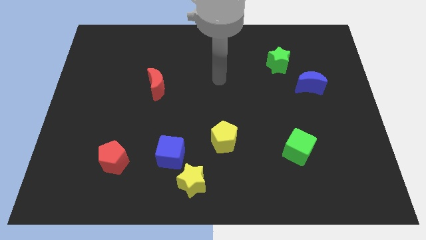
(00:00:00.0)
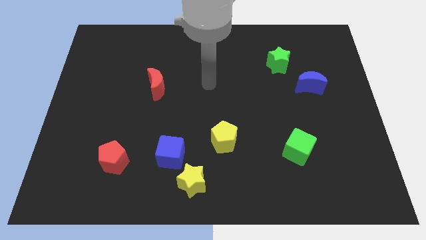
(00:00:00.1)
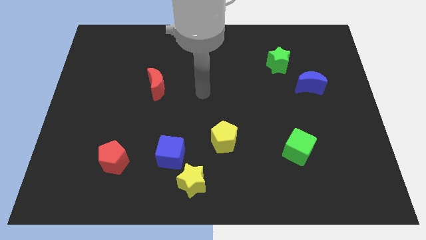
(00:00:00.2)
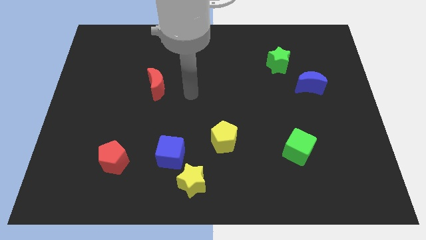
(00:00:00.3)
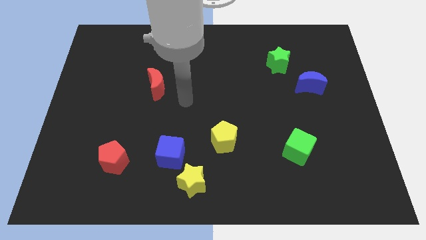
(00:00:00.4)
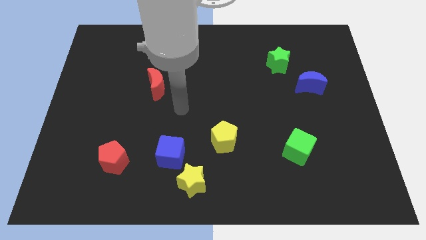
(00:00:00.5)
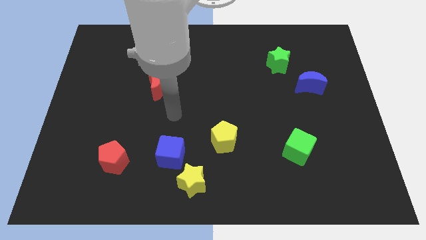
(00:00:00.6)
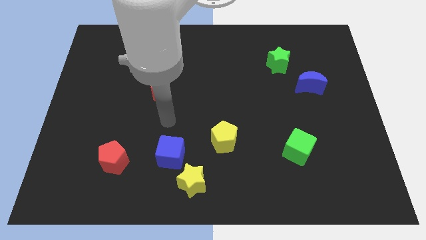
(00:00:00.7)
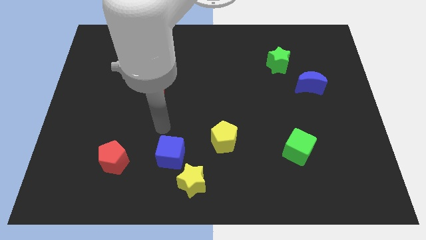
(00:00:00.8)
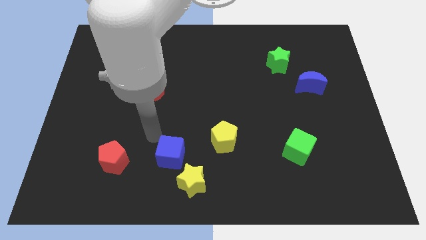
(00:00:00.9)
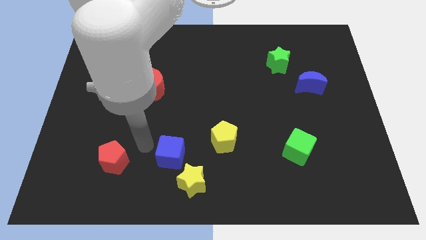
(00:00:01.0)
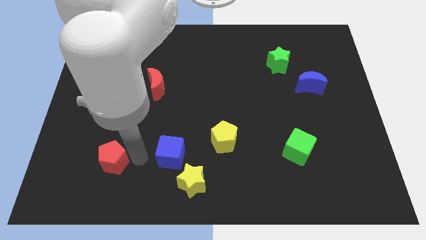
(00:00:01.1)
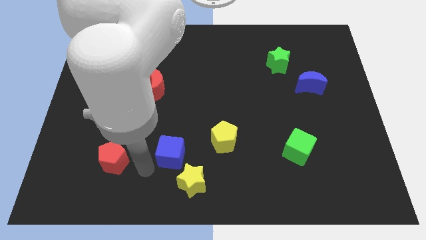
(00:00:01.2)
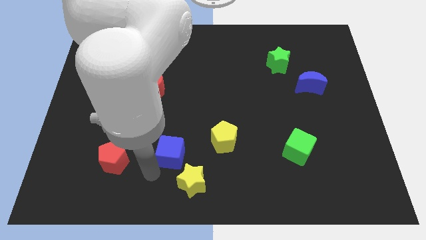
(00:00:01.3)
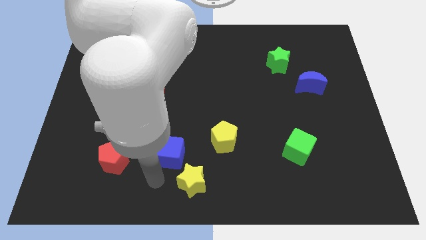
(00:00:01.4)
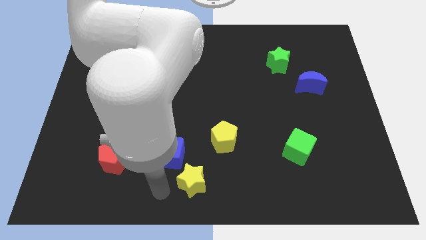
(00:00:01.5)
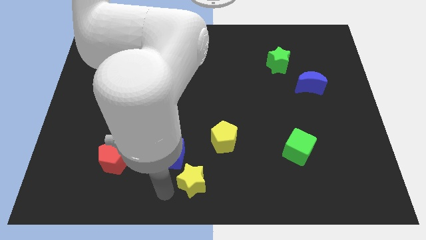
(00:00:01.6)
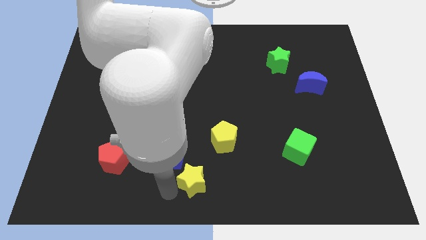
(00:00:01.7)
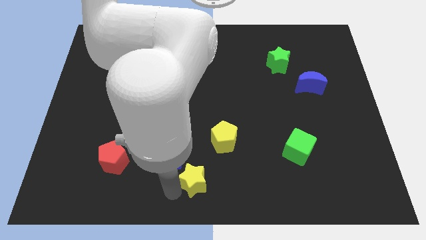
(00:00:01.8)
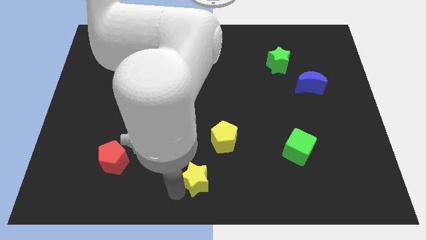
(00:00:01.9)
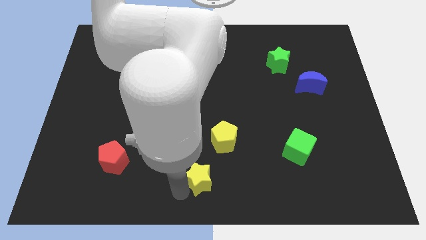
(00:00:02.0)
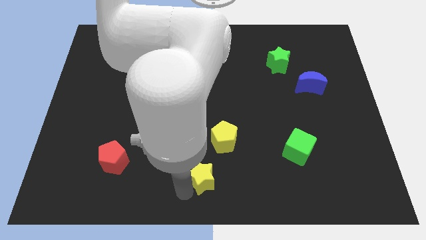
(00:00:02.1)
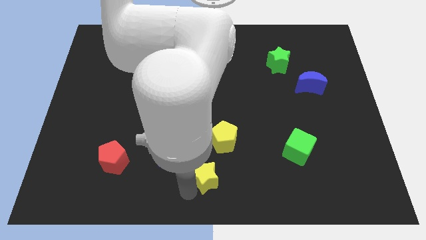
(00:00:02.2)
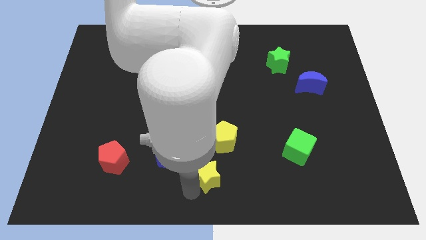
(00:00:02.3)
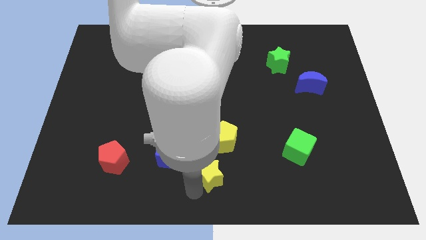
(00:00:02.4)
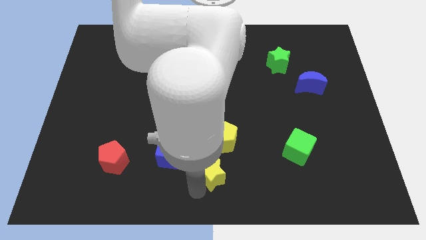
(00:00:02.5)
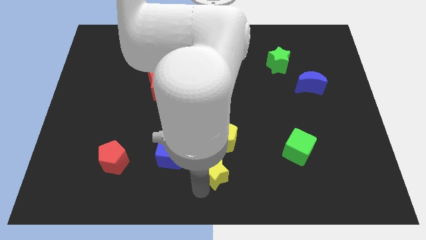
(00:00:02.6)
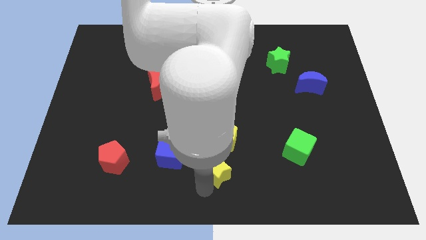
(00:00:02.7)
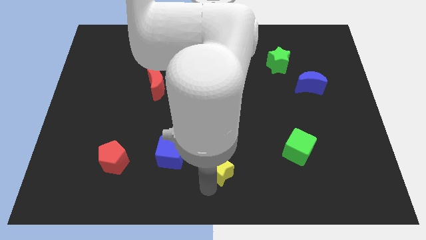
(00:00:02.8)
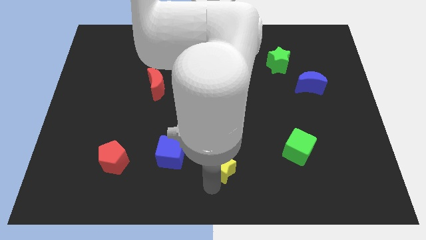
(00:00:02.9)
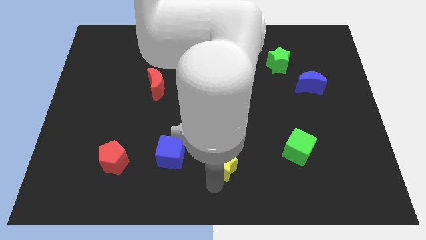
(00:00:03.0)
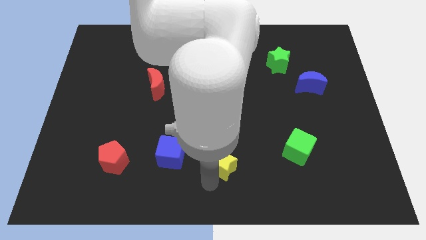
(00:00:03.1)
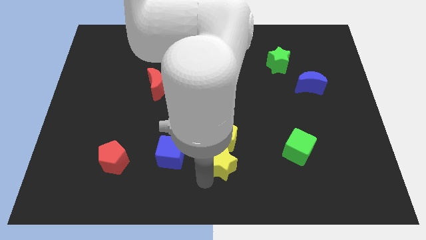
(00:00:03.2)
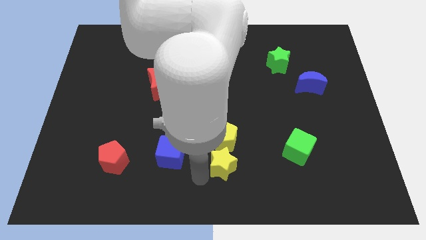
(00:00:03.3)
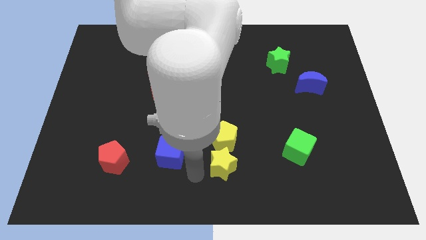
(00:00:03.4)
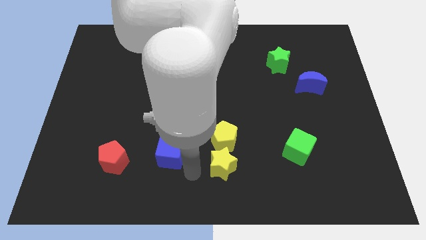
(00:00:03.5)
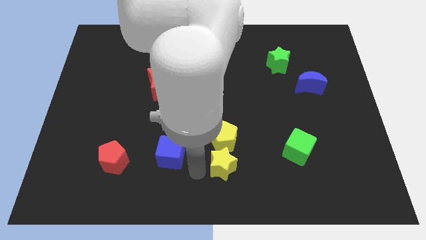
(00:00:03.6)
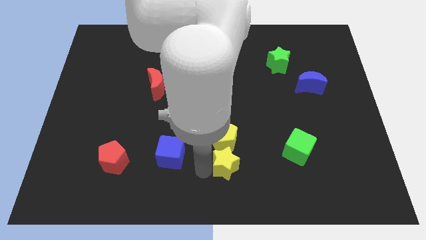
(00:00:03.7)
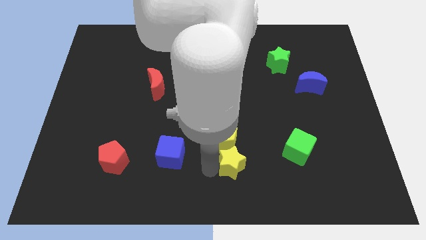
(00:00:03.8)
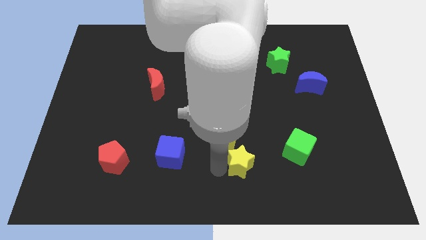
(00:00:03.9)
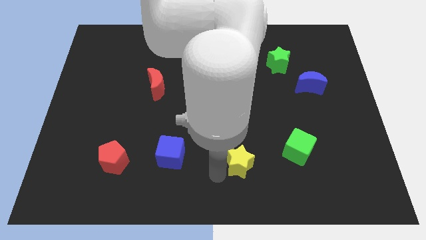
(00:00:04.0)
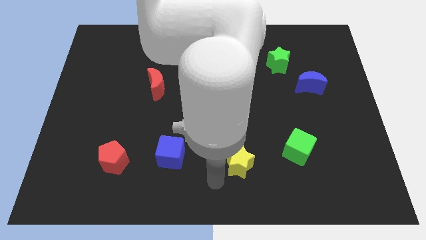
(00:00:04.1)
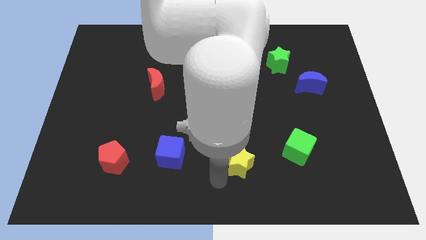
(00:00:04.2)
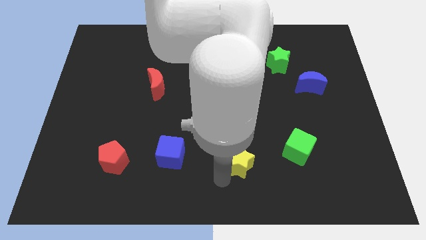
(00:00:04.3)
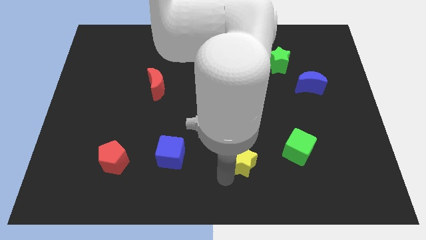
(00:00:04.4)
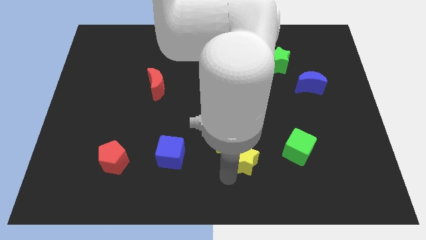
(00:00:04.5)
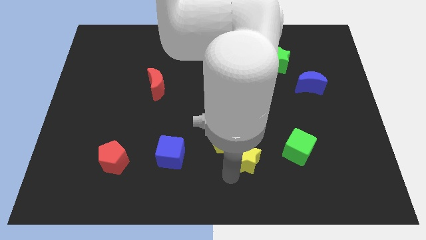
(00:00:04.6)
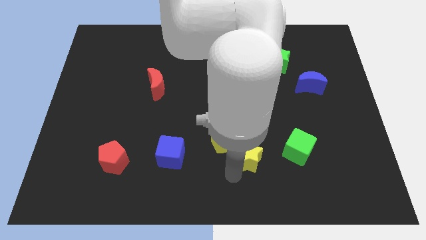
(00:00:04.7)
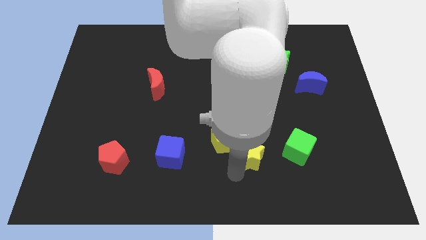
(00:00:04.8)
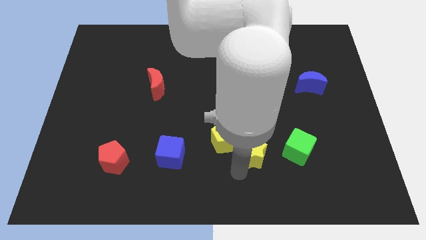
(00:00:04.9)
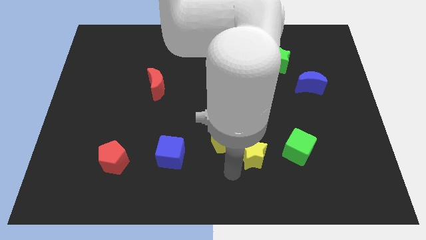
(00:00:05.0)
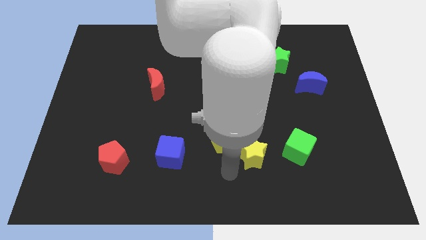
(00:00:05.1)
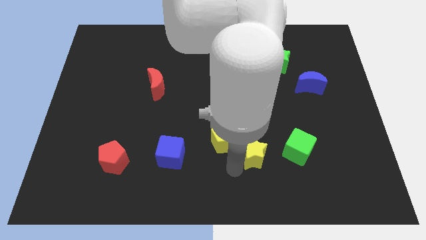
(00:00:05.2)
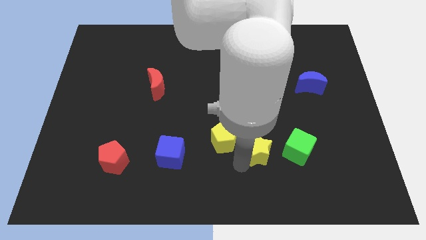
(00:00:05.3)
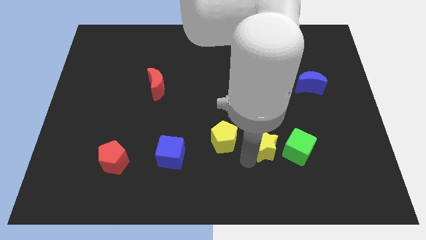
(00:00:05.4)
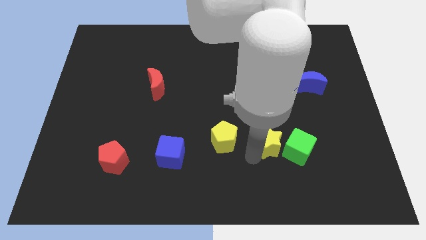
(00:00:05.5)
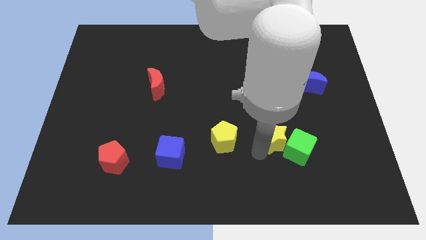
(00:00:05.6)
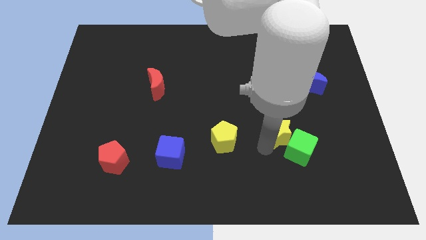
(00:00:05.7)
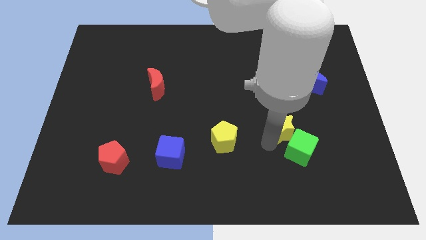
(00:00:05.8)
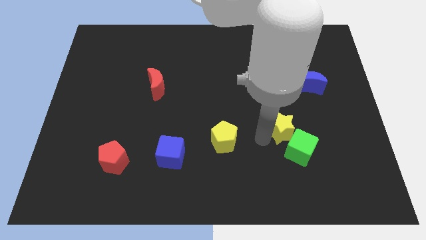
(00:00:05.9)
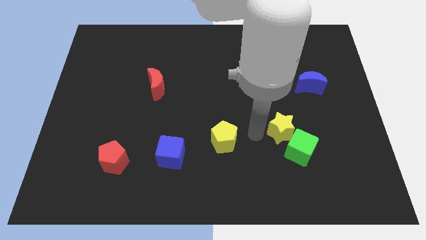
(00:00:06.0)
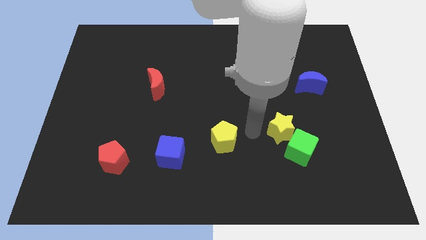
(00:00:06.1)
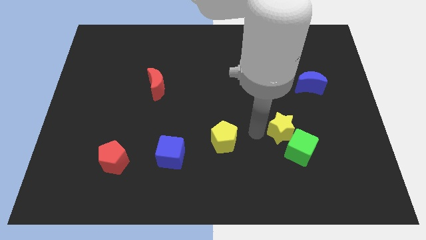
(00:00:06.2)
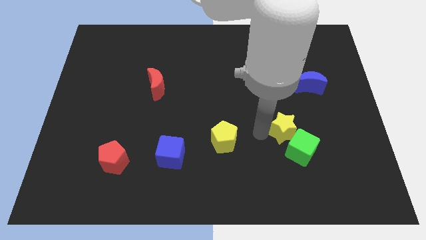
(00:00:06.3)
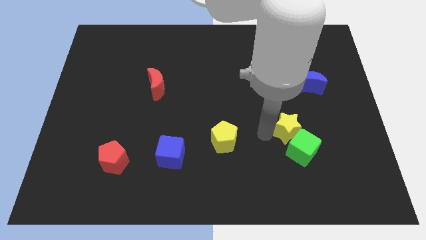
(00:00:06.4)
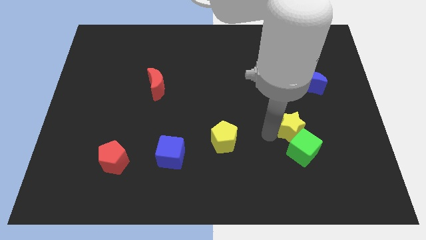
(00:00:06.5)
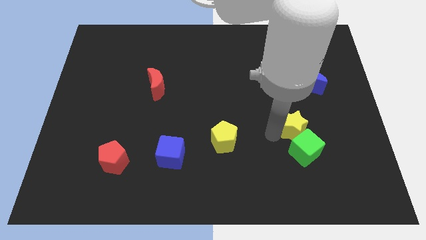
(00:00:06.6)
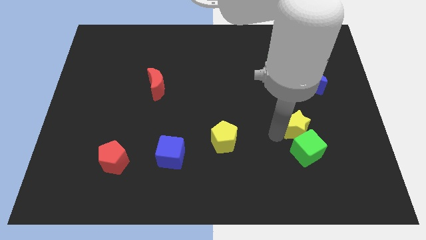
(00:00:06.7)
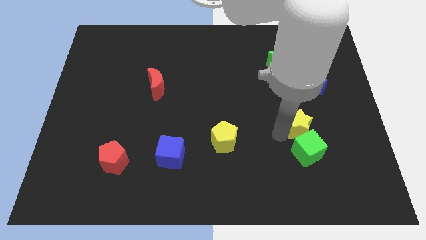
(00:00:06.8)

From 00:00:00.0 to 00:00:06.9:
put the yellow star to the top right side of the green cube
